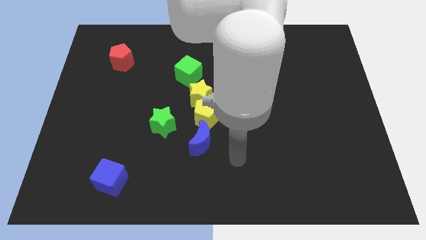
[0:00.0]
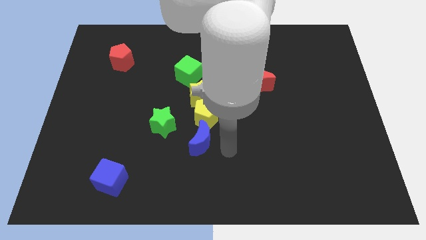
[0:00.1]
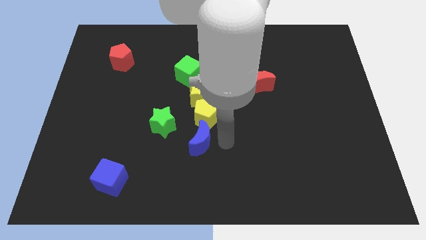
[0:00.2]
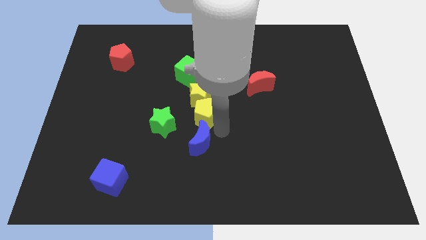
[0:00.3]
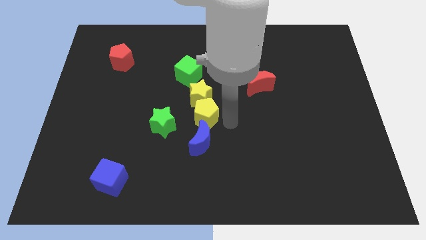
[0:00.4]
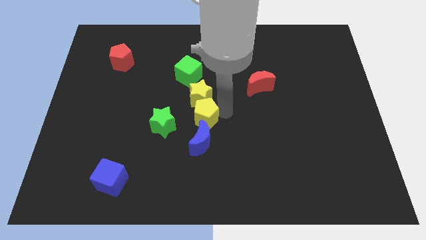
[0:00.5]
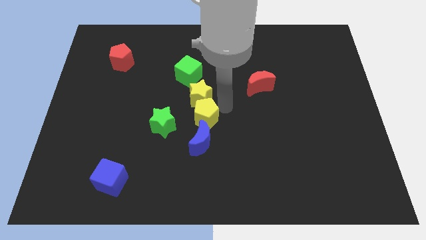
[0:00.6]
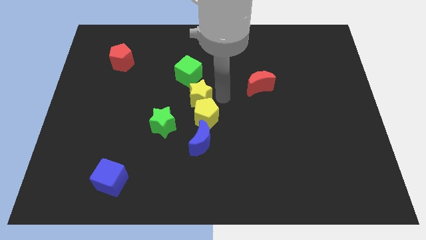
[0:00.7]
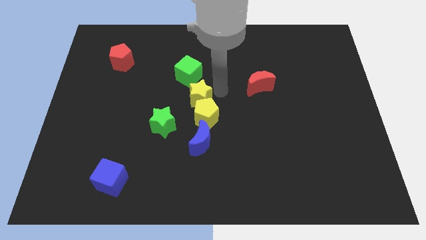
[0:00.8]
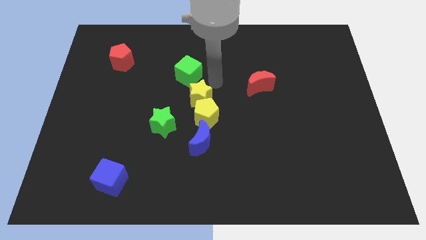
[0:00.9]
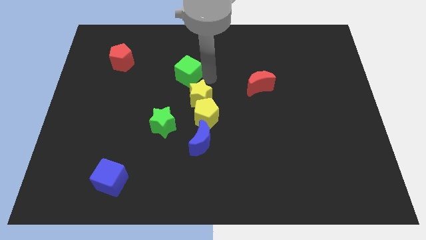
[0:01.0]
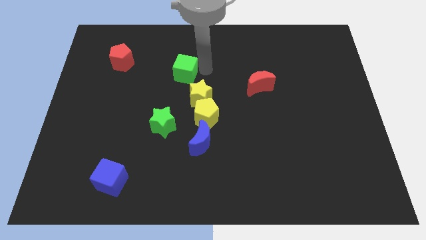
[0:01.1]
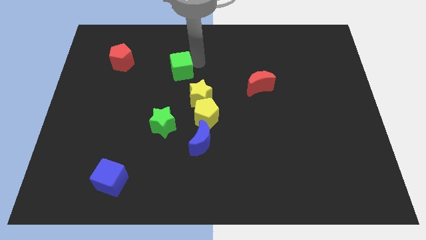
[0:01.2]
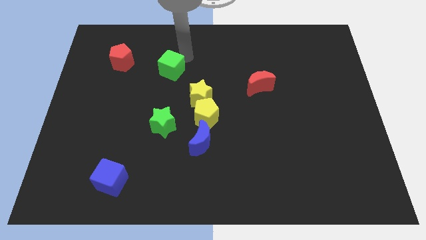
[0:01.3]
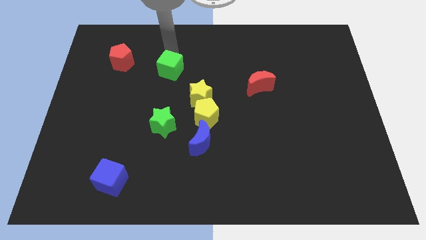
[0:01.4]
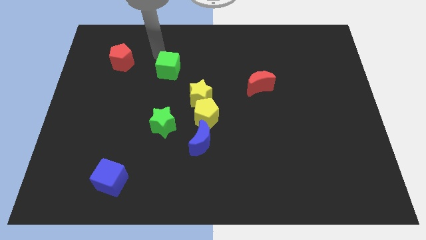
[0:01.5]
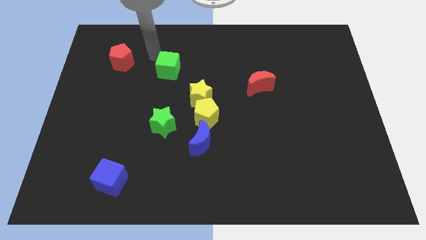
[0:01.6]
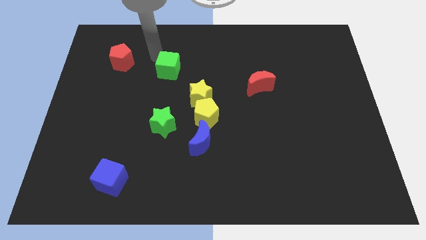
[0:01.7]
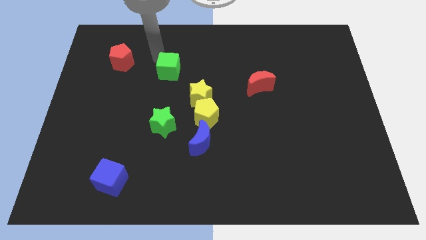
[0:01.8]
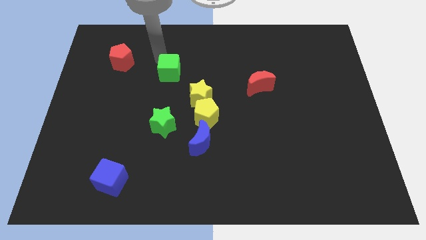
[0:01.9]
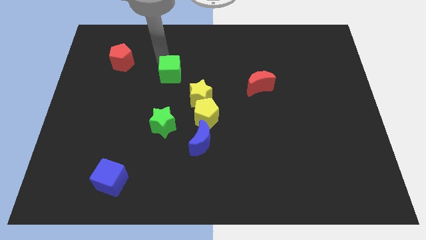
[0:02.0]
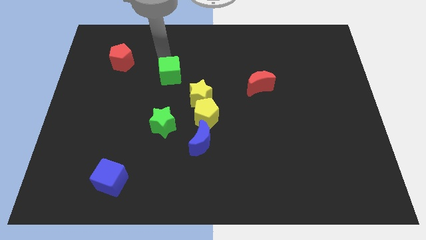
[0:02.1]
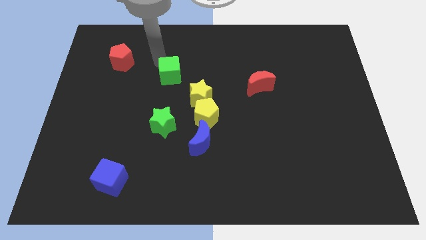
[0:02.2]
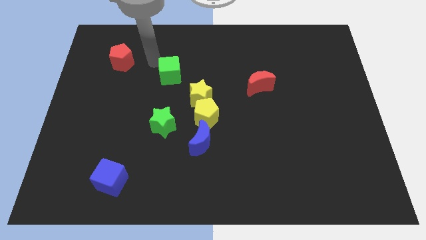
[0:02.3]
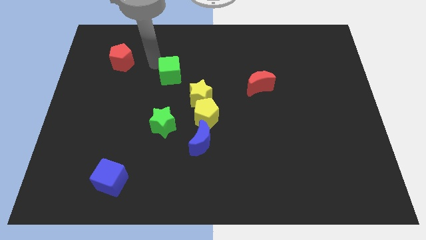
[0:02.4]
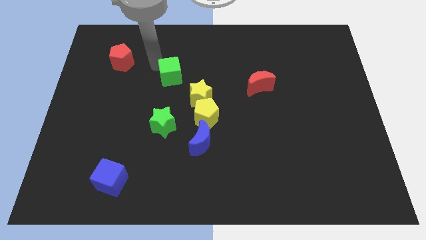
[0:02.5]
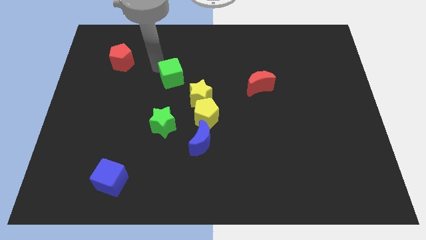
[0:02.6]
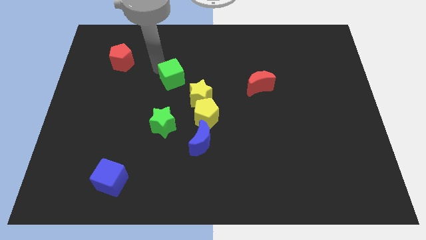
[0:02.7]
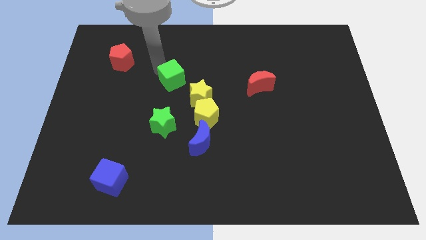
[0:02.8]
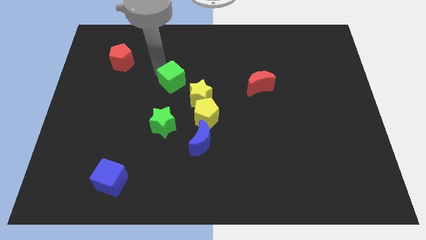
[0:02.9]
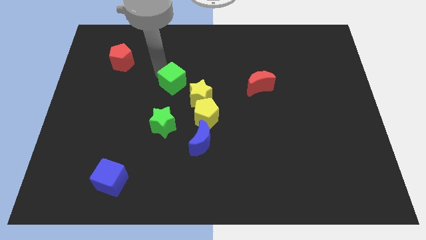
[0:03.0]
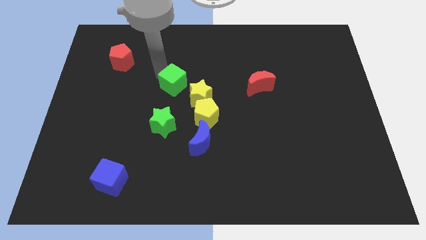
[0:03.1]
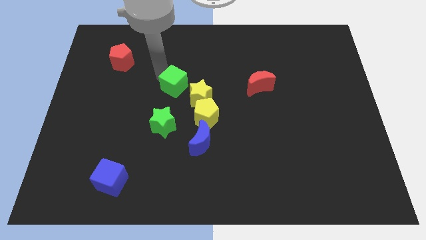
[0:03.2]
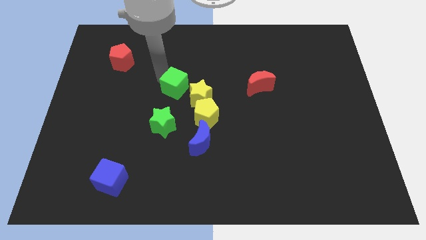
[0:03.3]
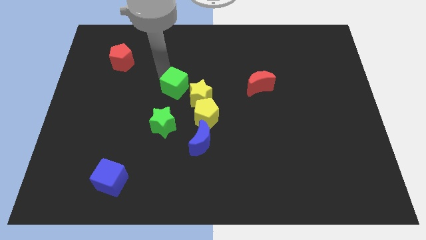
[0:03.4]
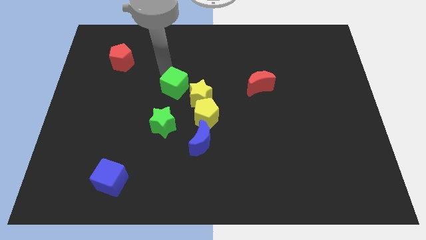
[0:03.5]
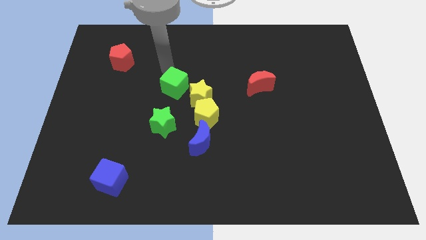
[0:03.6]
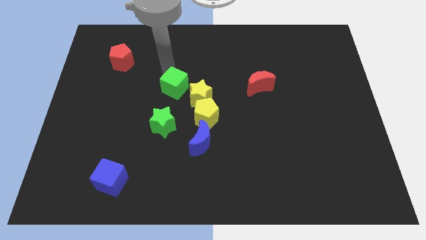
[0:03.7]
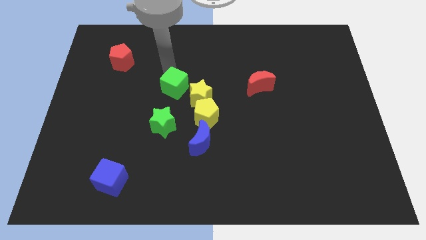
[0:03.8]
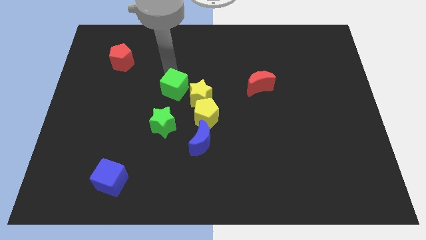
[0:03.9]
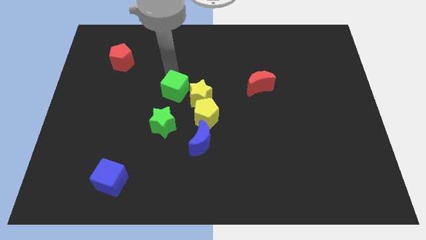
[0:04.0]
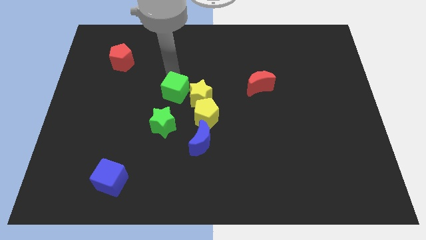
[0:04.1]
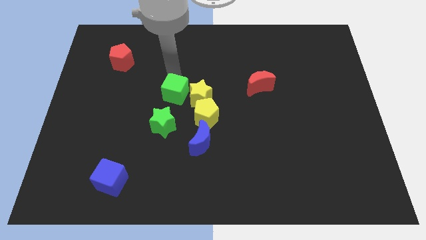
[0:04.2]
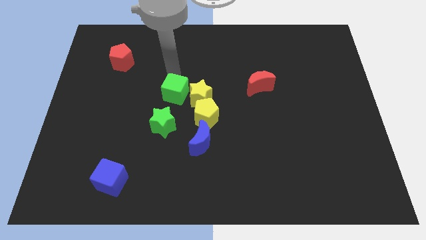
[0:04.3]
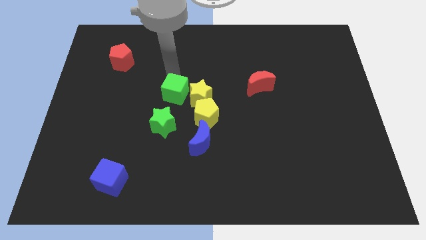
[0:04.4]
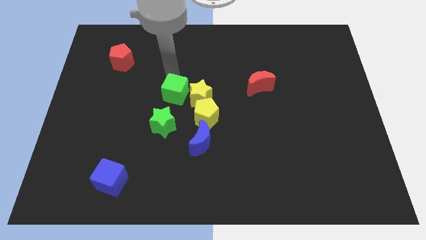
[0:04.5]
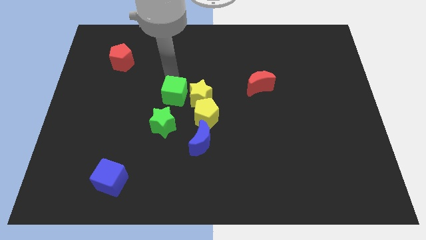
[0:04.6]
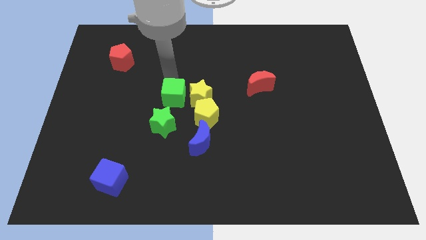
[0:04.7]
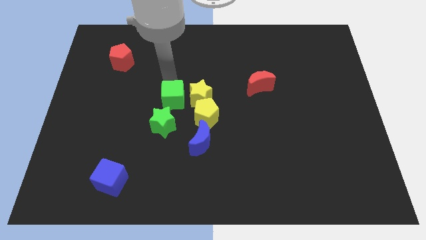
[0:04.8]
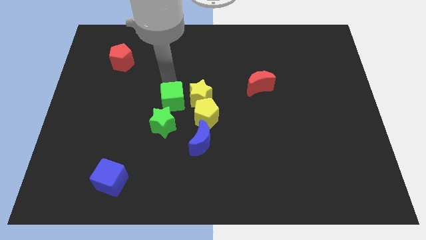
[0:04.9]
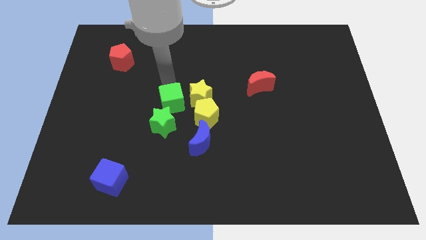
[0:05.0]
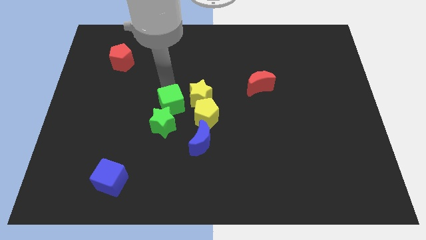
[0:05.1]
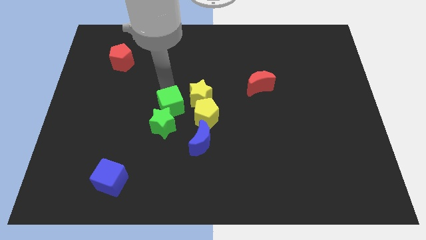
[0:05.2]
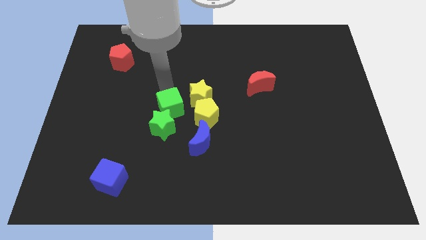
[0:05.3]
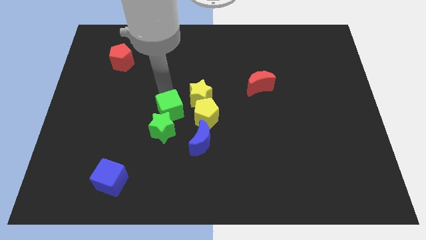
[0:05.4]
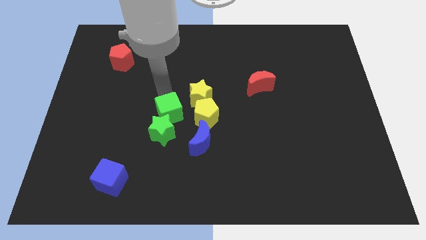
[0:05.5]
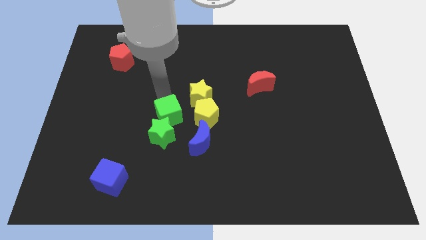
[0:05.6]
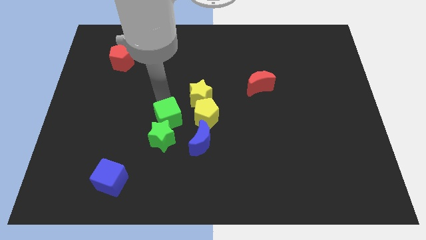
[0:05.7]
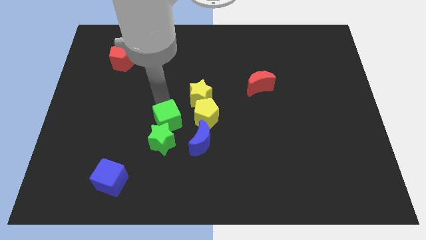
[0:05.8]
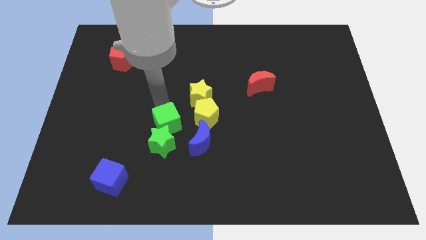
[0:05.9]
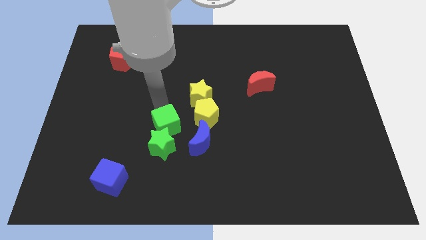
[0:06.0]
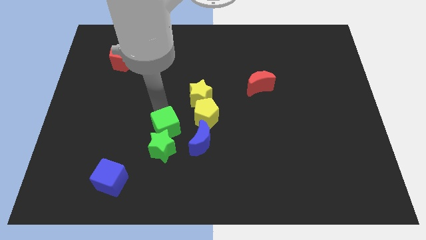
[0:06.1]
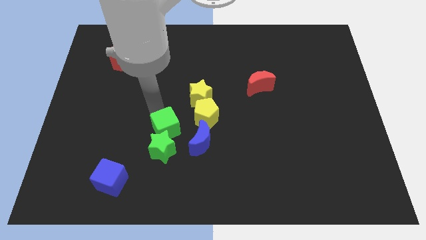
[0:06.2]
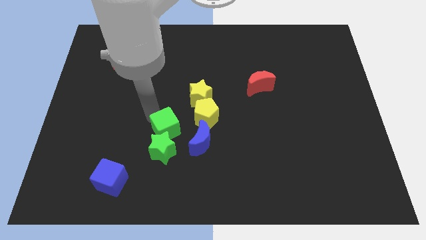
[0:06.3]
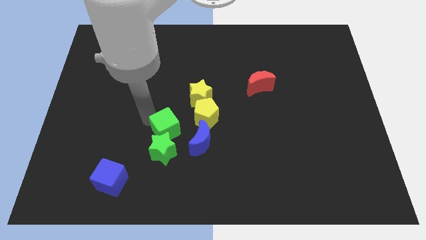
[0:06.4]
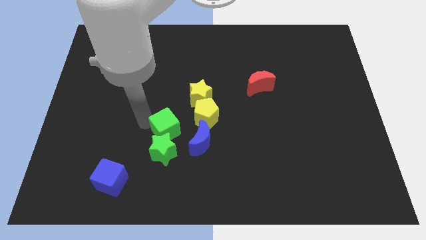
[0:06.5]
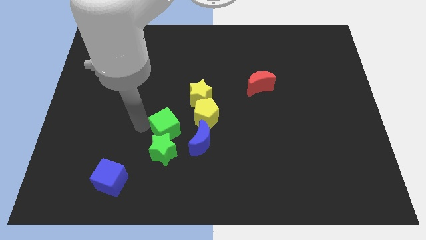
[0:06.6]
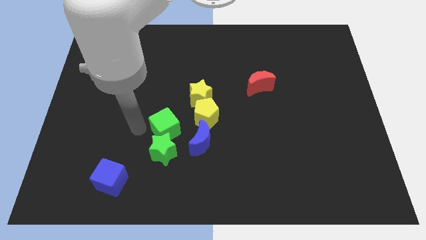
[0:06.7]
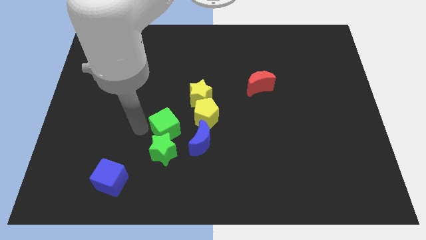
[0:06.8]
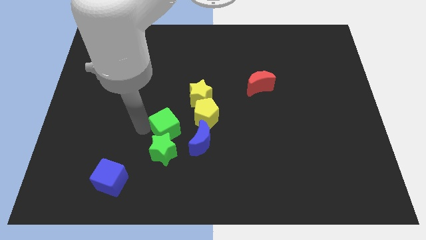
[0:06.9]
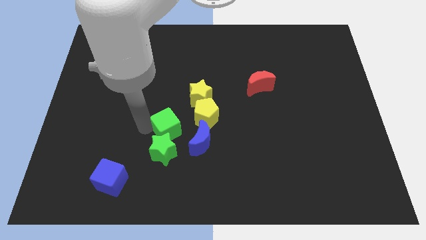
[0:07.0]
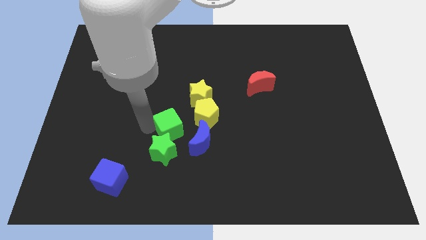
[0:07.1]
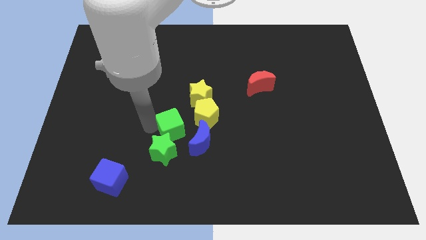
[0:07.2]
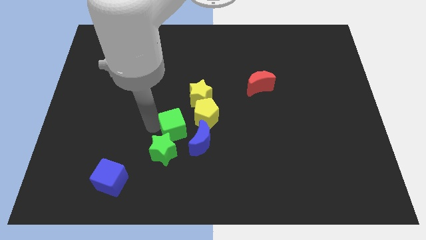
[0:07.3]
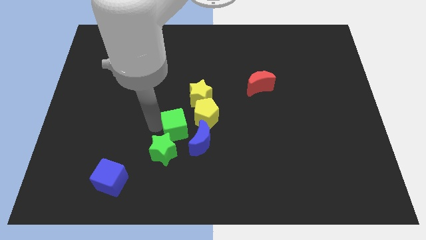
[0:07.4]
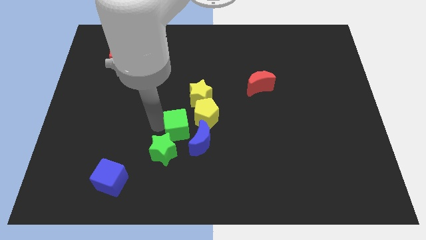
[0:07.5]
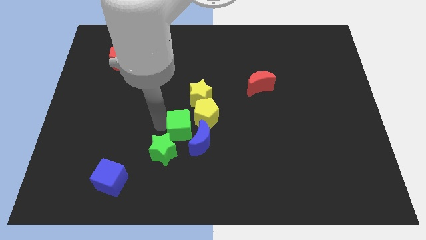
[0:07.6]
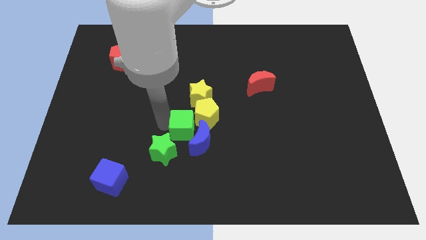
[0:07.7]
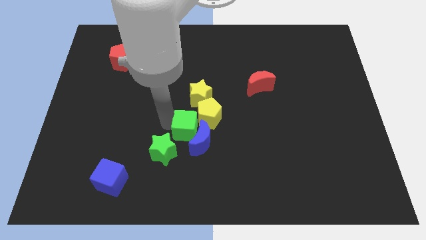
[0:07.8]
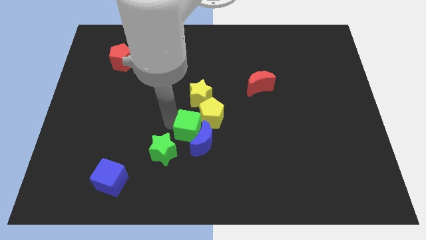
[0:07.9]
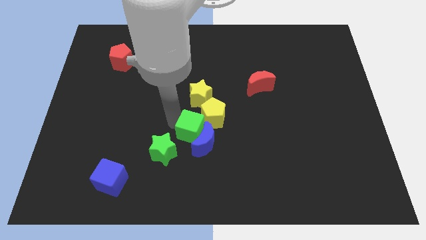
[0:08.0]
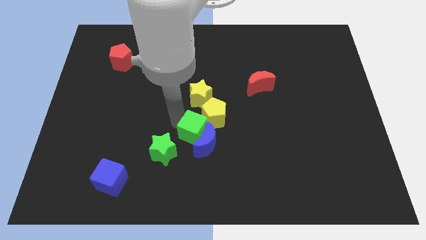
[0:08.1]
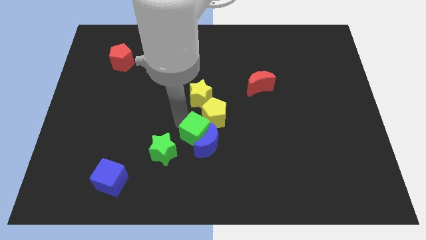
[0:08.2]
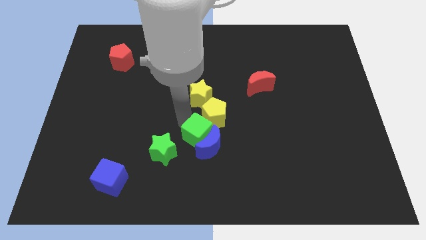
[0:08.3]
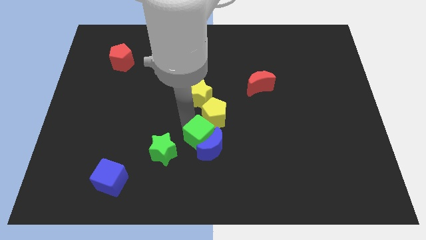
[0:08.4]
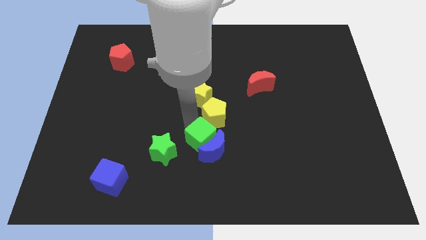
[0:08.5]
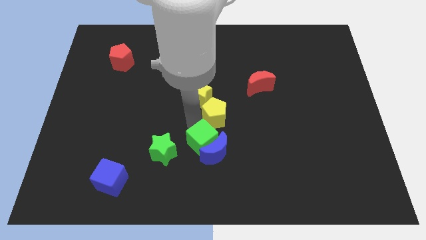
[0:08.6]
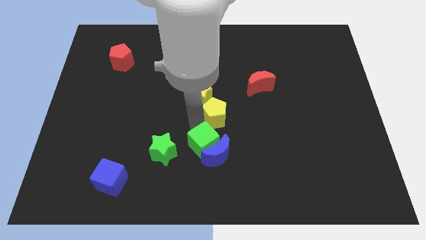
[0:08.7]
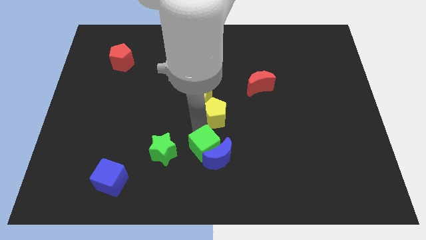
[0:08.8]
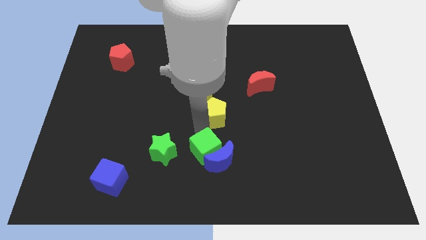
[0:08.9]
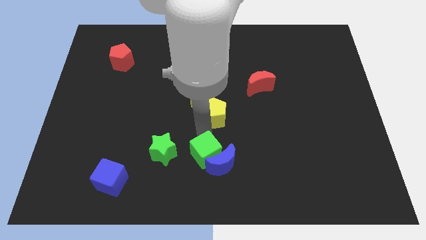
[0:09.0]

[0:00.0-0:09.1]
push the green cube to the bottom
